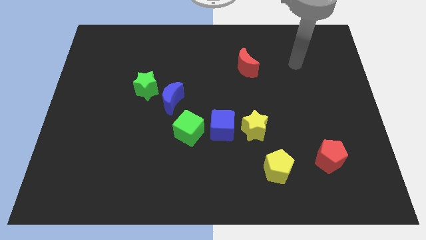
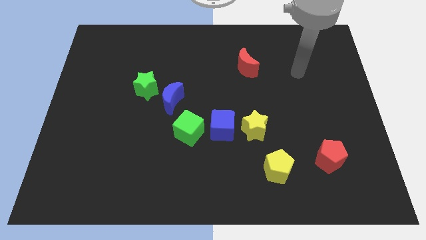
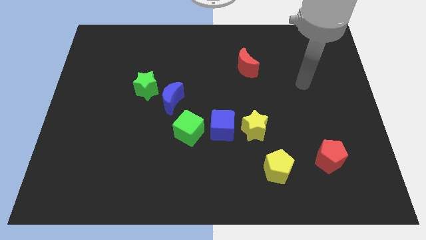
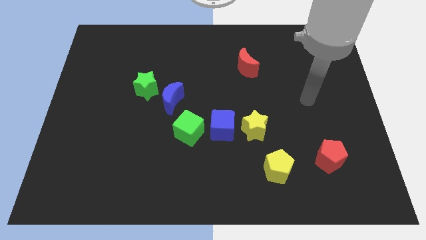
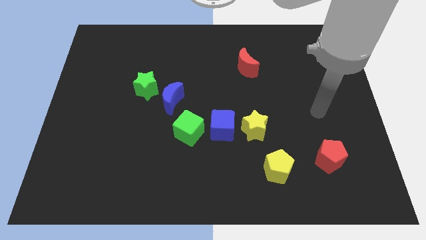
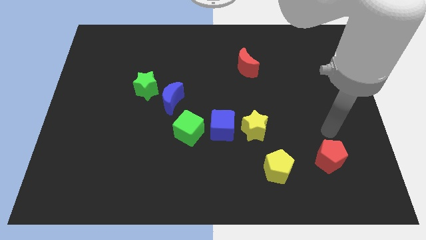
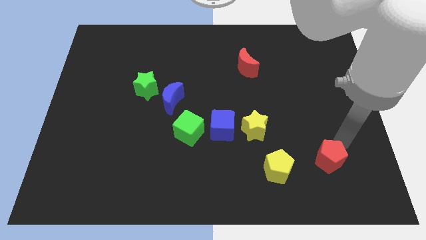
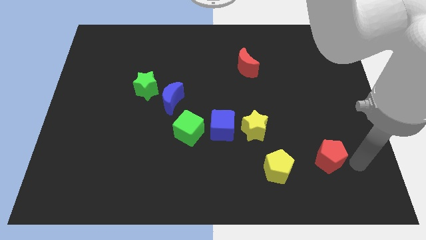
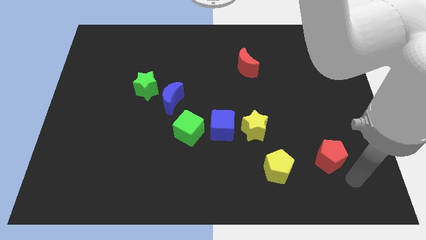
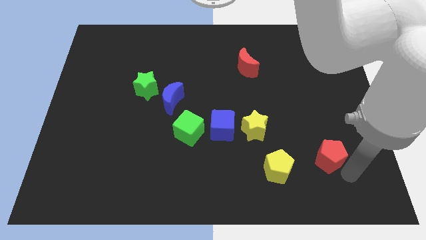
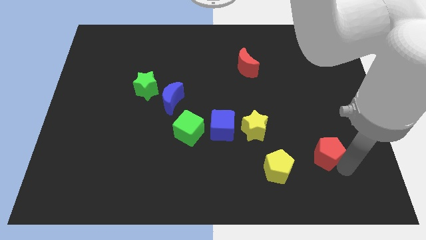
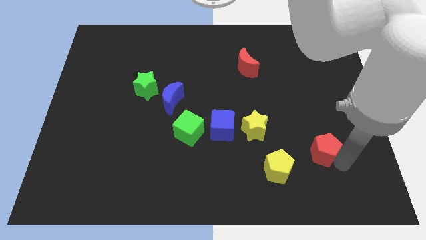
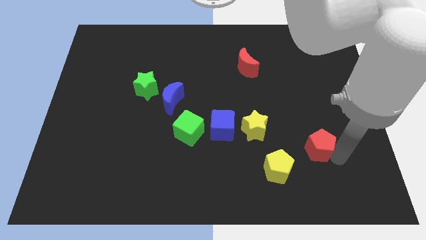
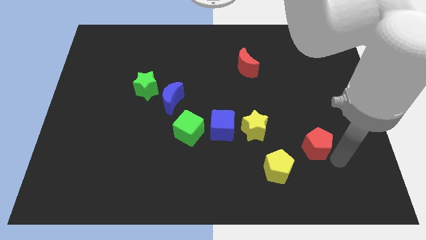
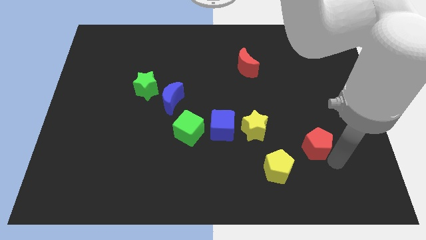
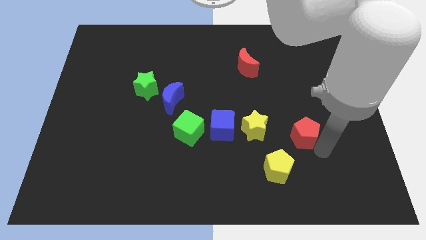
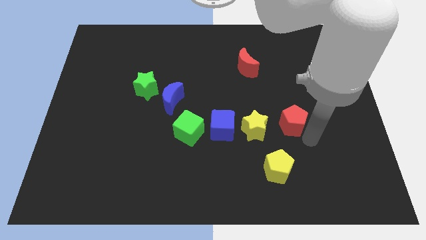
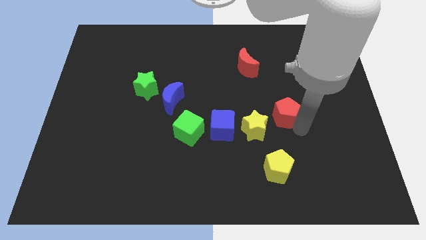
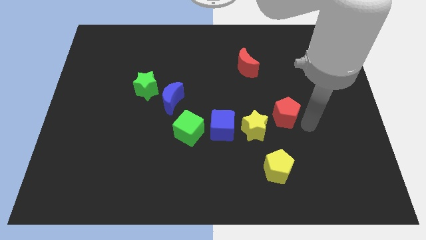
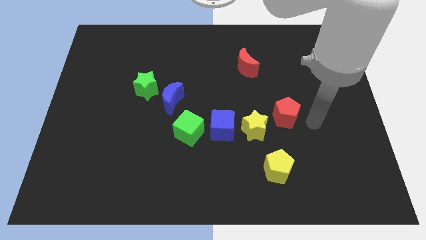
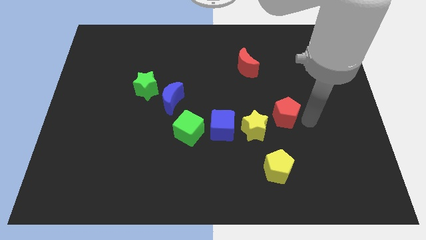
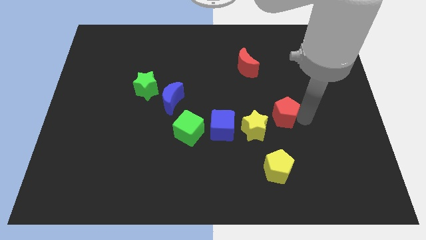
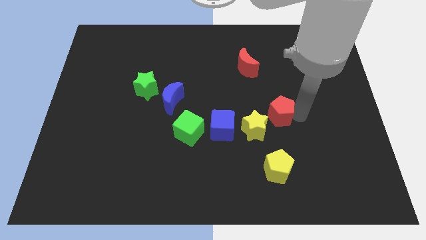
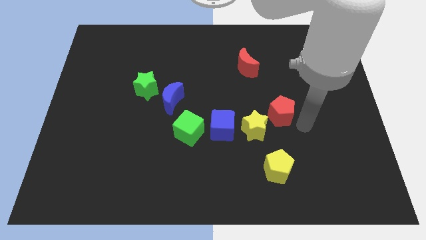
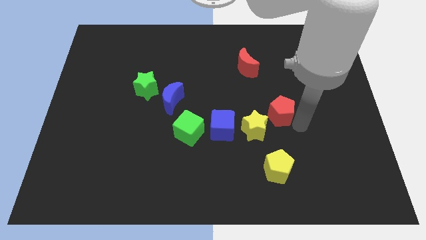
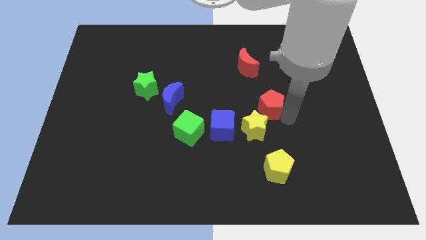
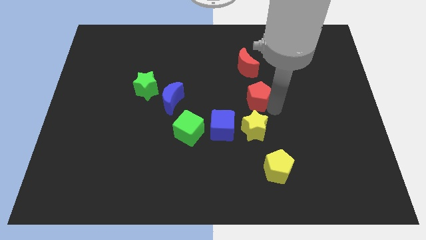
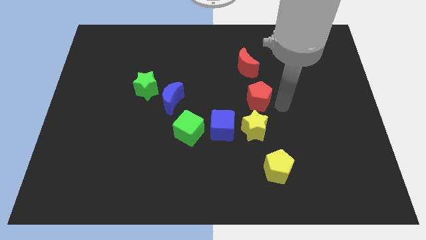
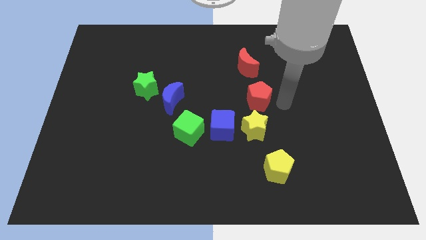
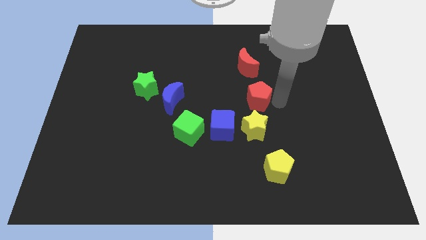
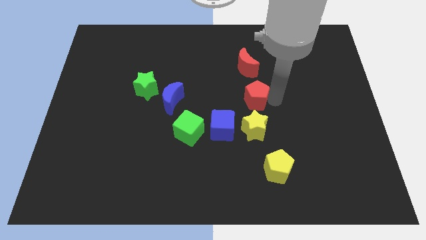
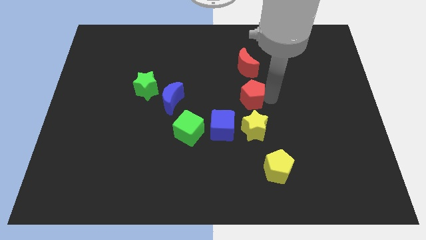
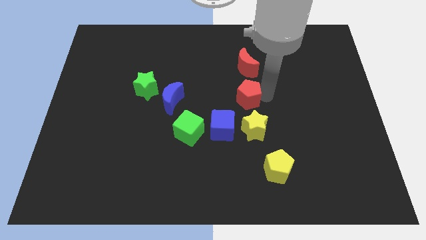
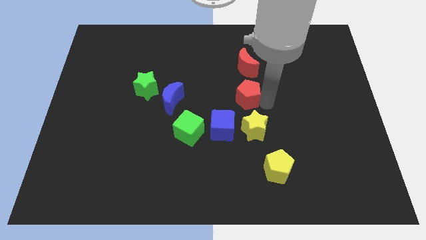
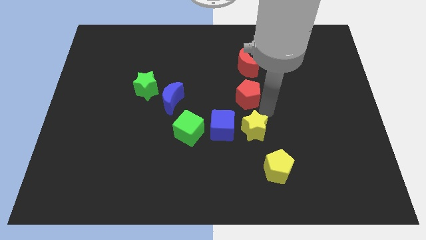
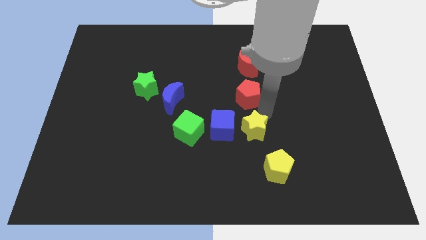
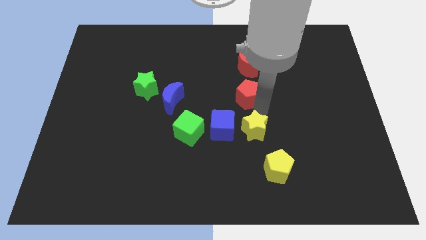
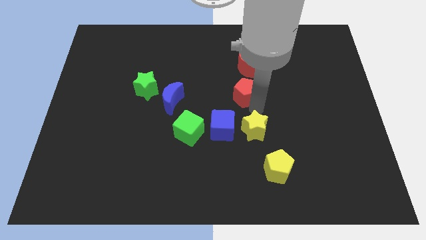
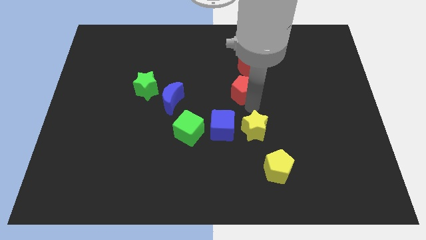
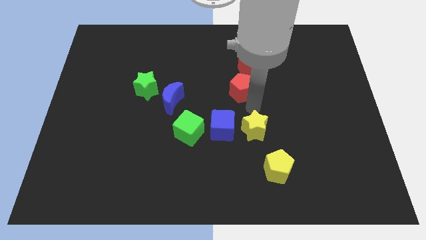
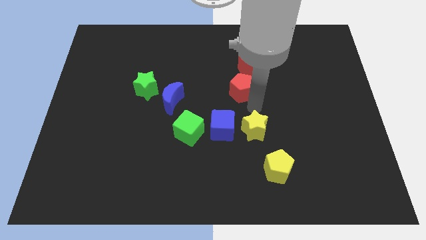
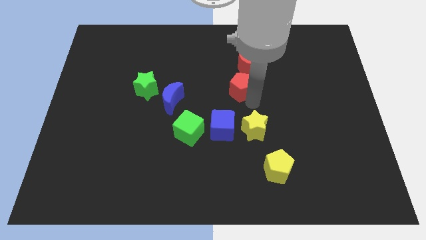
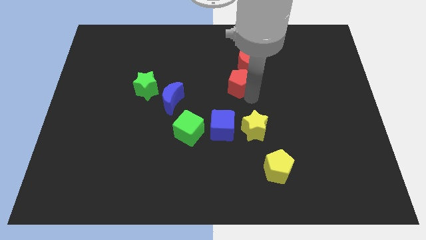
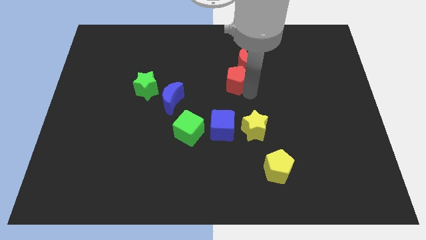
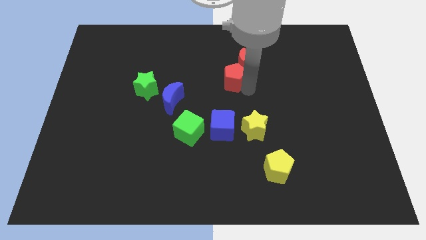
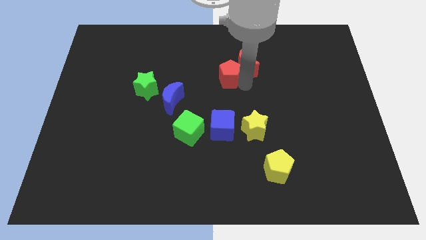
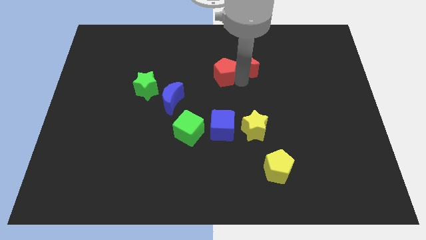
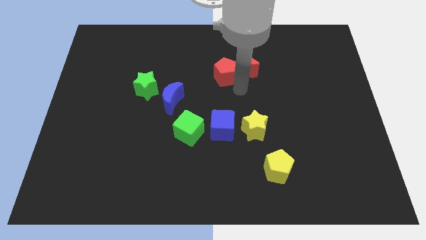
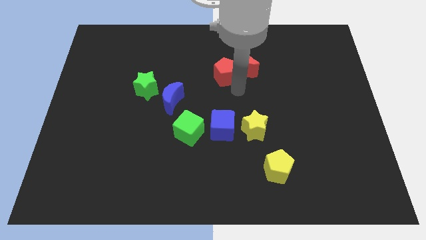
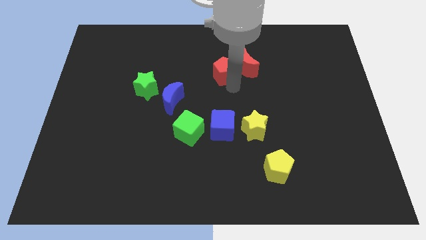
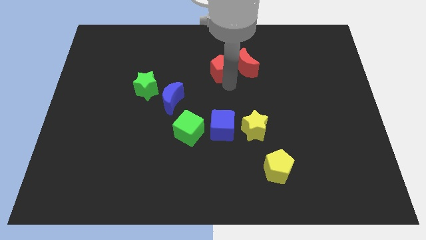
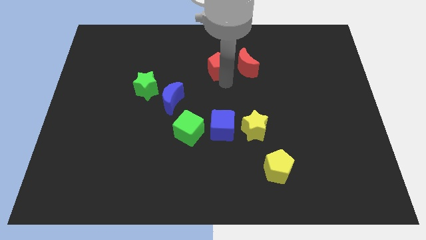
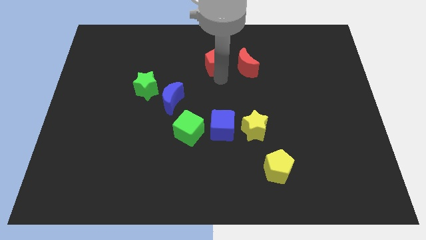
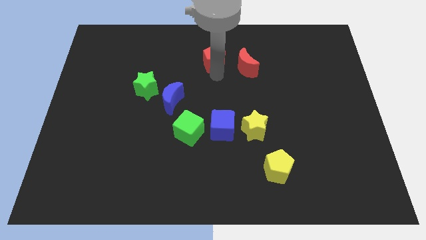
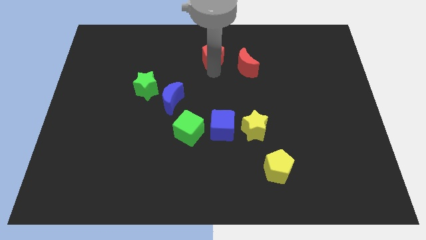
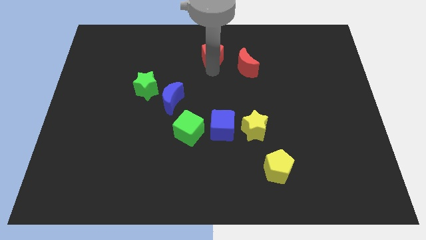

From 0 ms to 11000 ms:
slide the red pentagon to the top side
